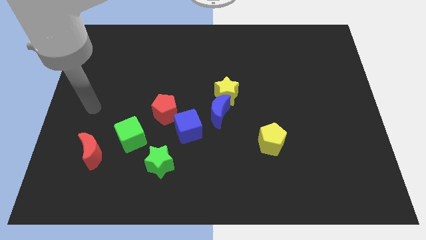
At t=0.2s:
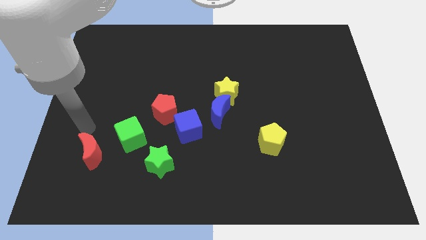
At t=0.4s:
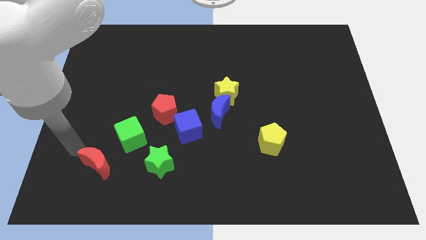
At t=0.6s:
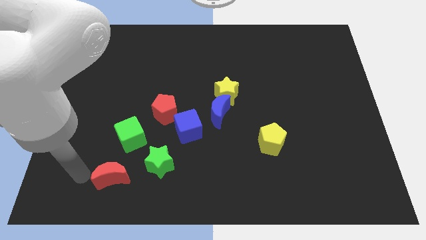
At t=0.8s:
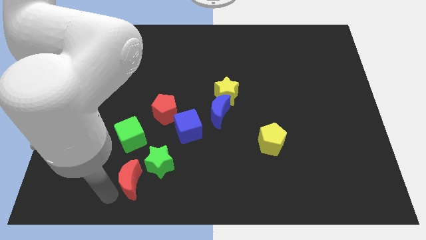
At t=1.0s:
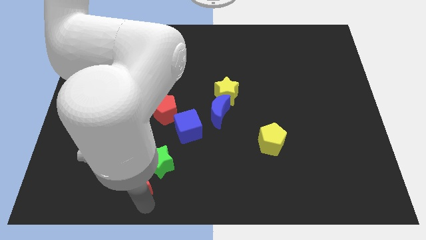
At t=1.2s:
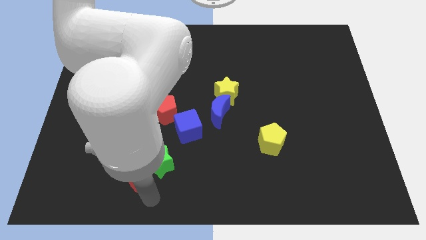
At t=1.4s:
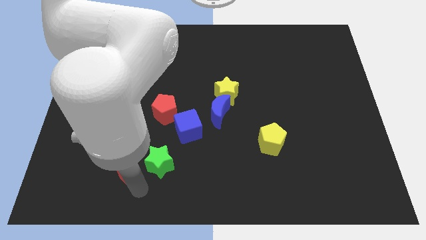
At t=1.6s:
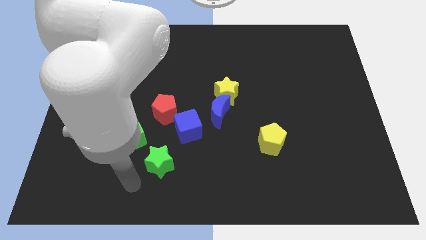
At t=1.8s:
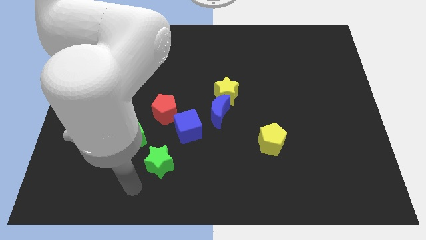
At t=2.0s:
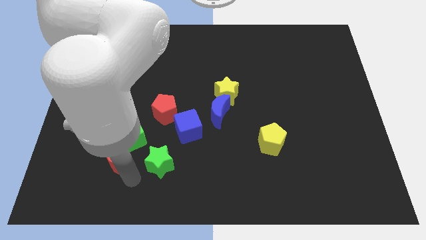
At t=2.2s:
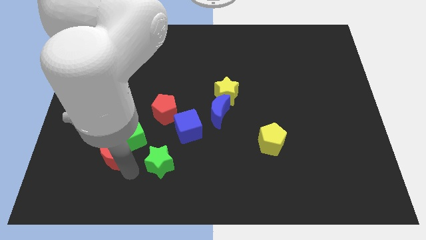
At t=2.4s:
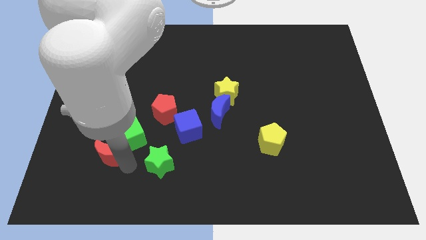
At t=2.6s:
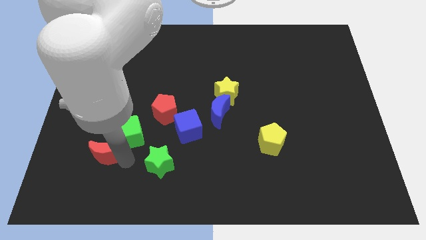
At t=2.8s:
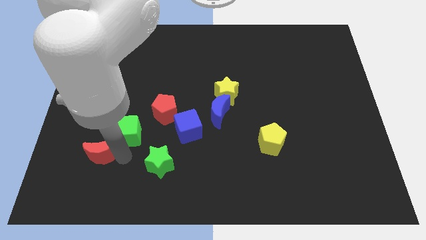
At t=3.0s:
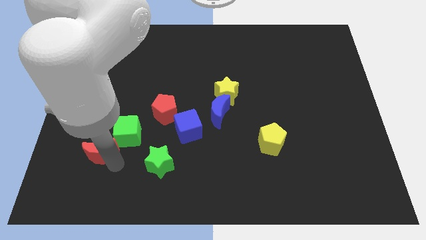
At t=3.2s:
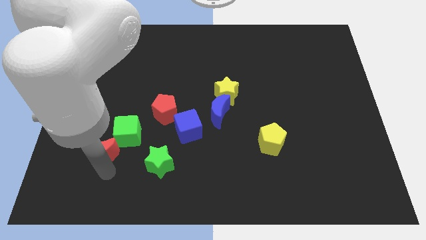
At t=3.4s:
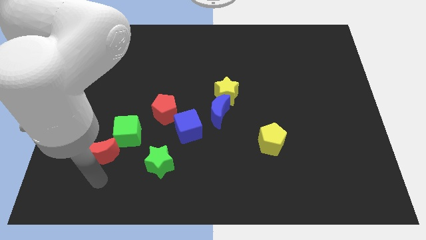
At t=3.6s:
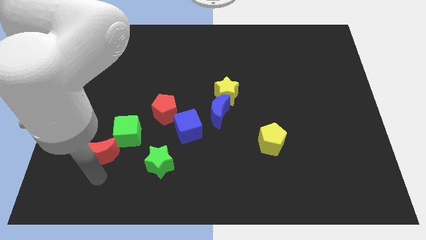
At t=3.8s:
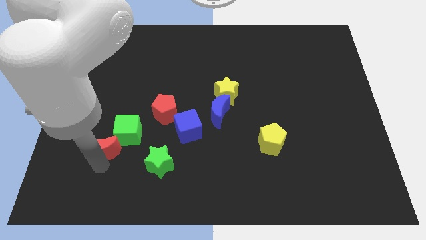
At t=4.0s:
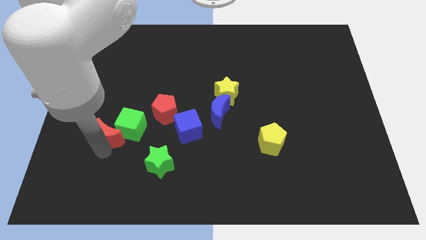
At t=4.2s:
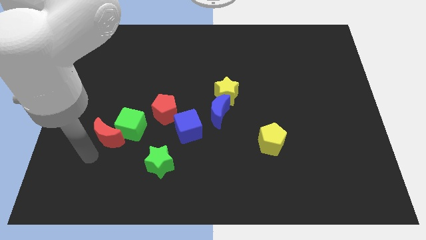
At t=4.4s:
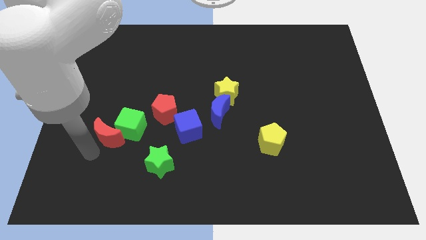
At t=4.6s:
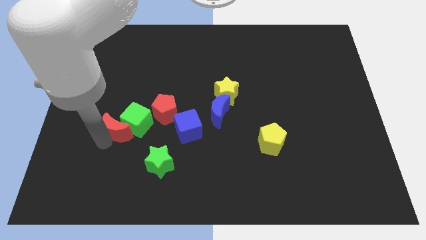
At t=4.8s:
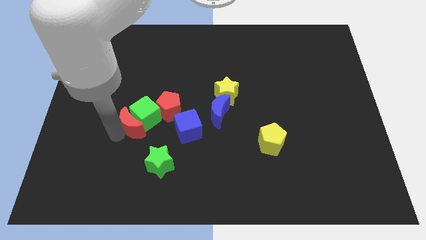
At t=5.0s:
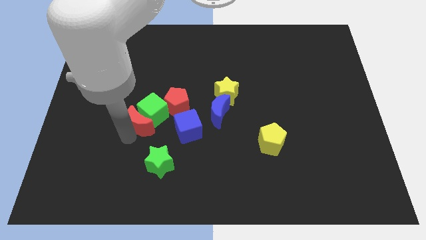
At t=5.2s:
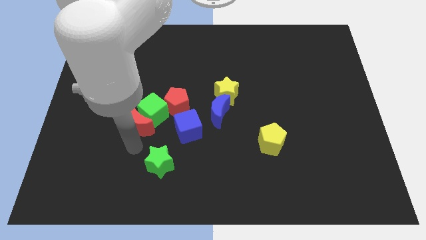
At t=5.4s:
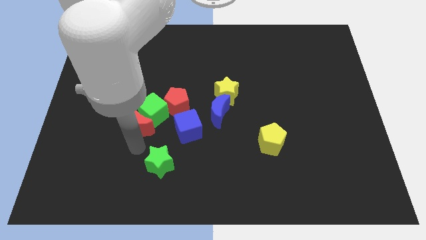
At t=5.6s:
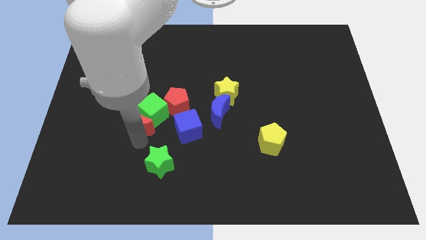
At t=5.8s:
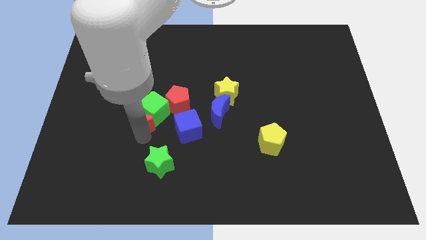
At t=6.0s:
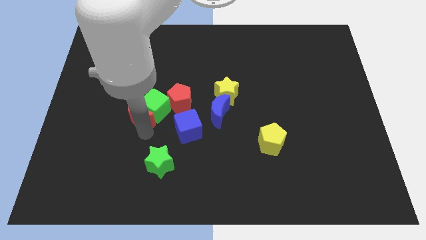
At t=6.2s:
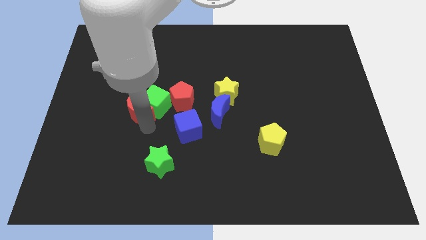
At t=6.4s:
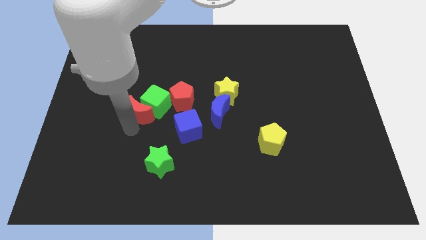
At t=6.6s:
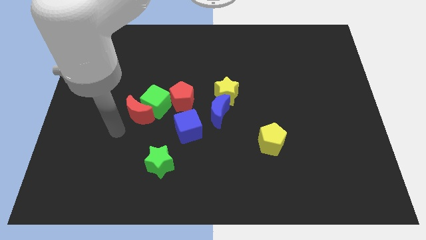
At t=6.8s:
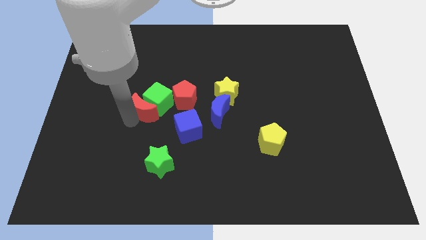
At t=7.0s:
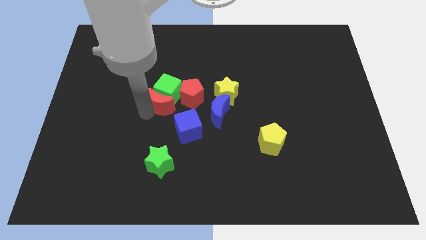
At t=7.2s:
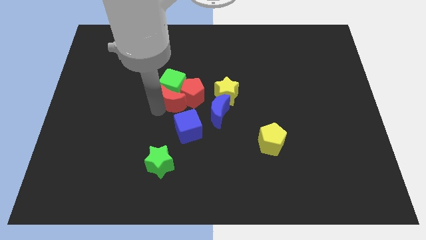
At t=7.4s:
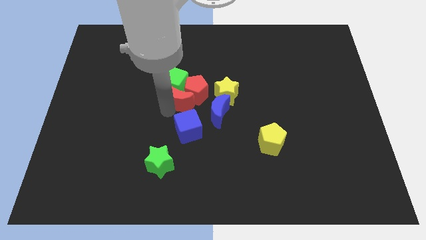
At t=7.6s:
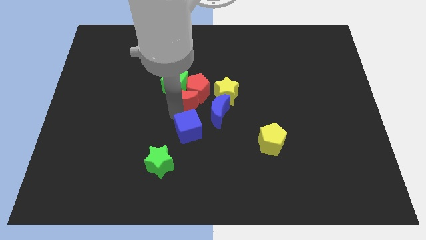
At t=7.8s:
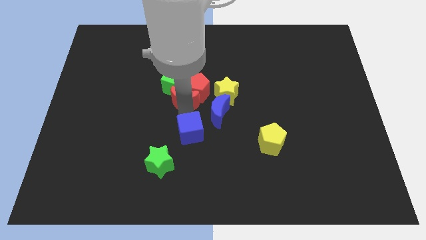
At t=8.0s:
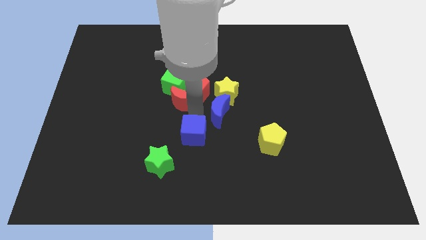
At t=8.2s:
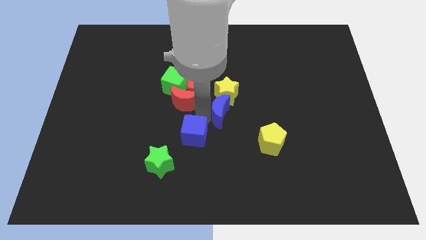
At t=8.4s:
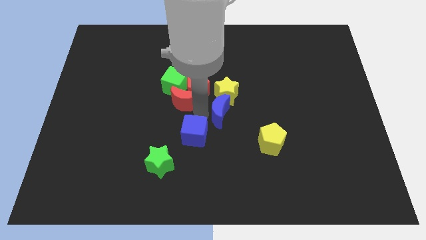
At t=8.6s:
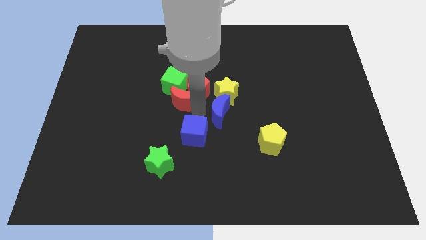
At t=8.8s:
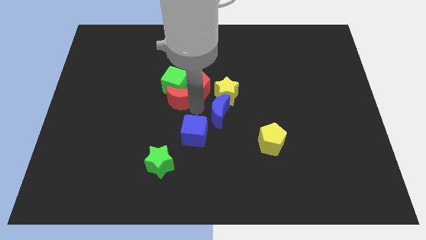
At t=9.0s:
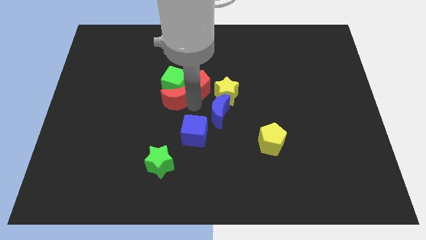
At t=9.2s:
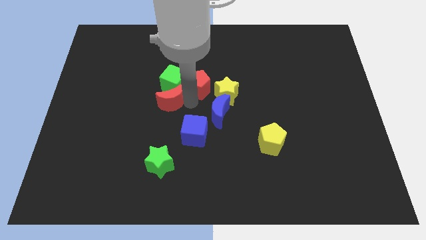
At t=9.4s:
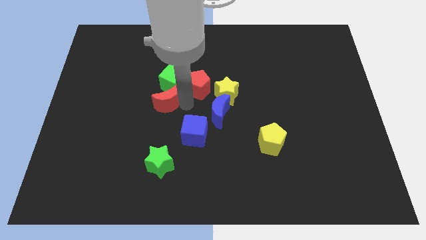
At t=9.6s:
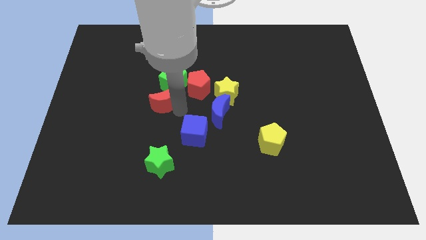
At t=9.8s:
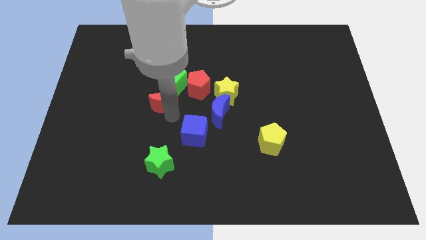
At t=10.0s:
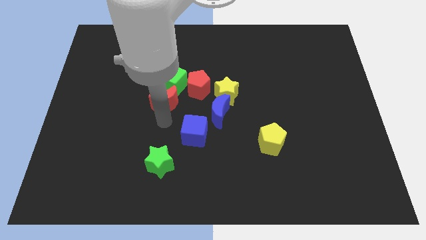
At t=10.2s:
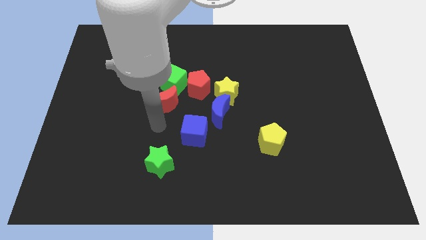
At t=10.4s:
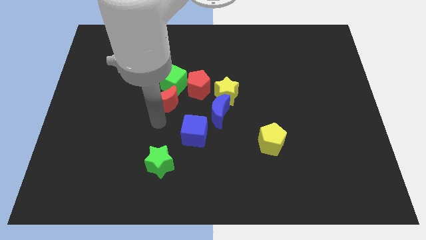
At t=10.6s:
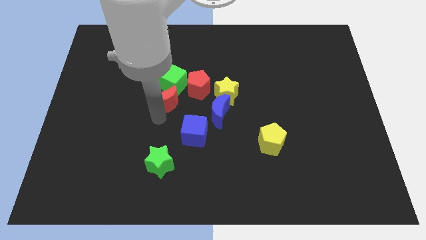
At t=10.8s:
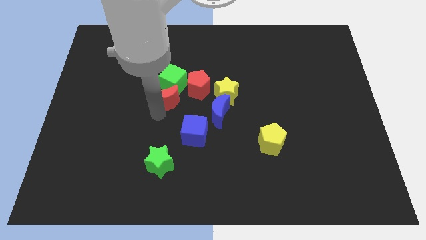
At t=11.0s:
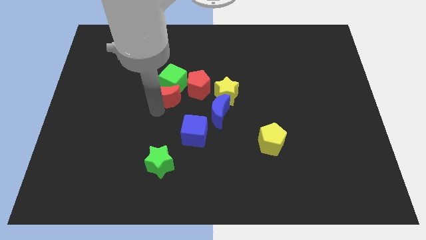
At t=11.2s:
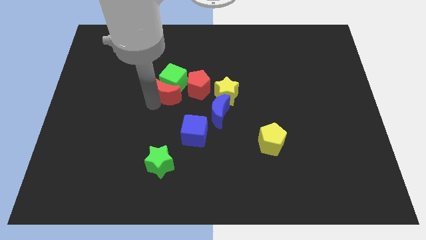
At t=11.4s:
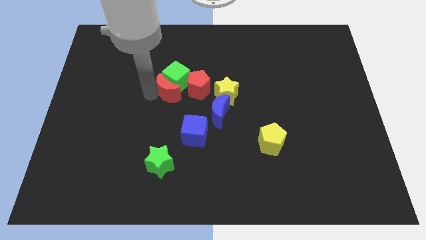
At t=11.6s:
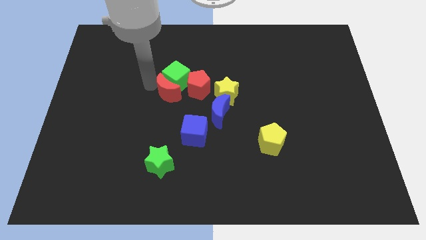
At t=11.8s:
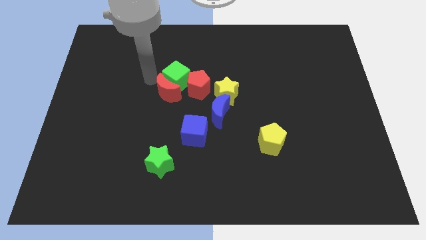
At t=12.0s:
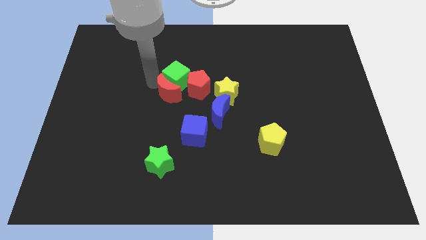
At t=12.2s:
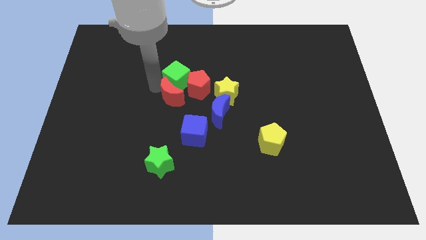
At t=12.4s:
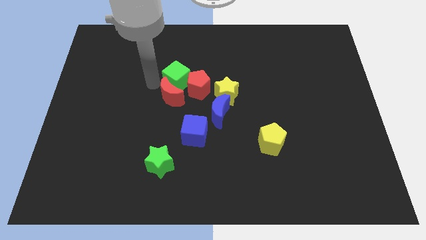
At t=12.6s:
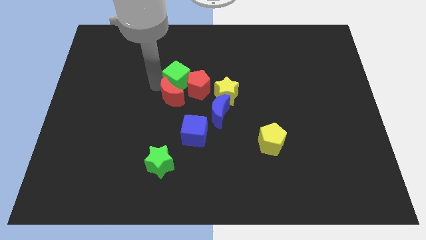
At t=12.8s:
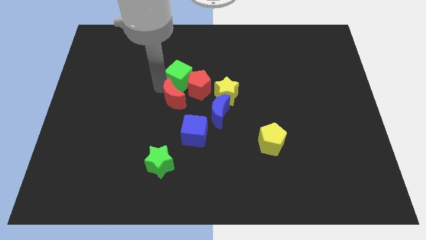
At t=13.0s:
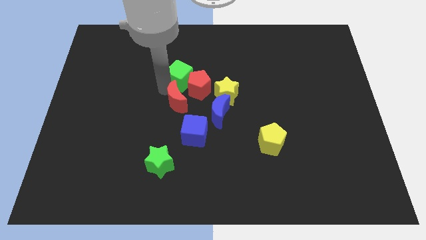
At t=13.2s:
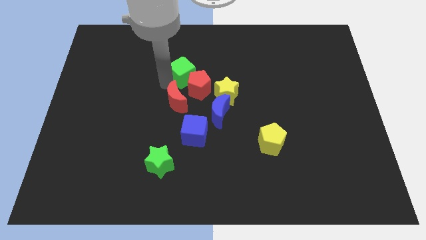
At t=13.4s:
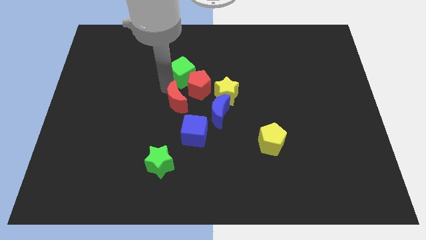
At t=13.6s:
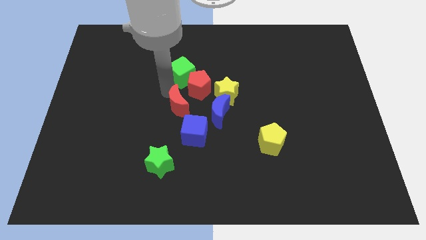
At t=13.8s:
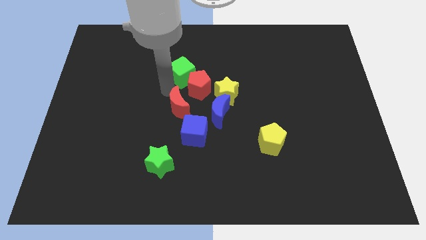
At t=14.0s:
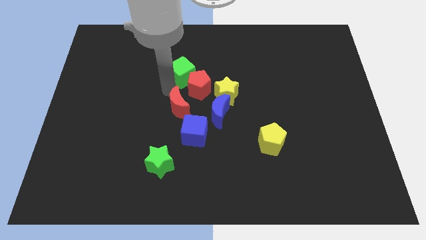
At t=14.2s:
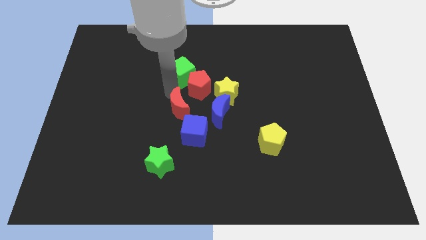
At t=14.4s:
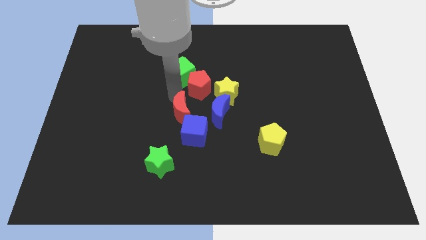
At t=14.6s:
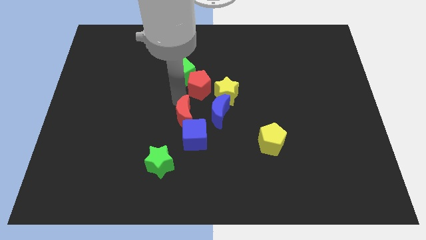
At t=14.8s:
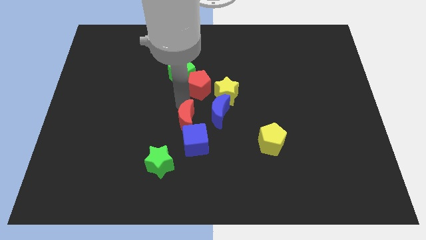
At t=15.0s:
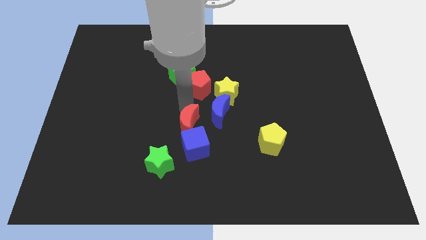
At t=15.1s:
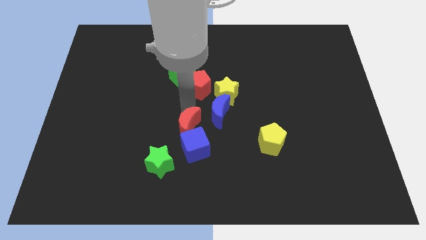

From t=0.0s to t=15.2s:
put the red moon to the blue cube
